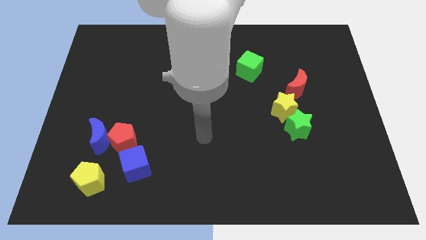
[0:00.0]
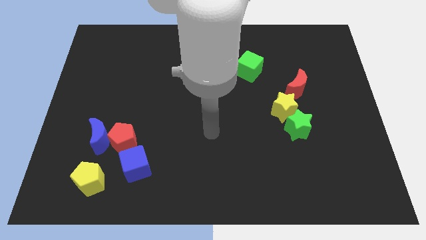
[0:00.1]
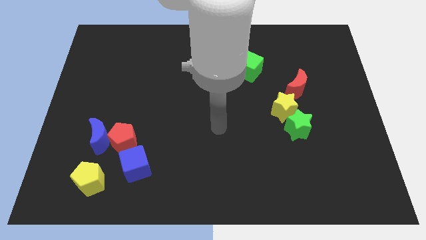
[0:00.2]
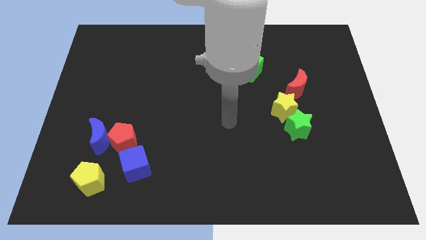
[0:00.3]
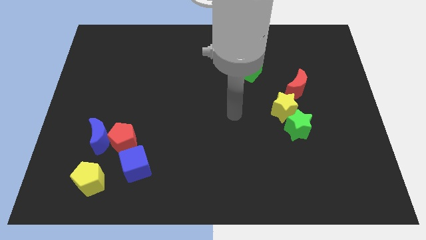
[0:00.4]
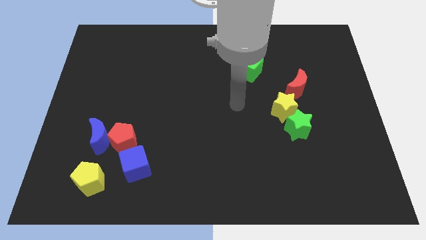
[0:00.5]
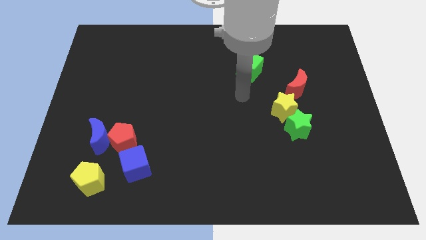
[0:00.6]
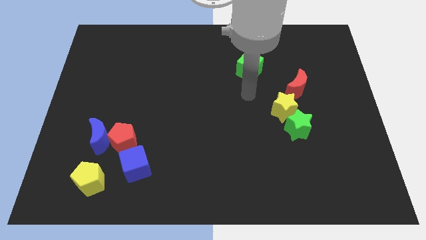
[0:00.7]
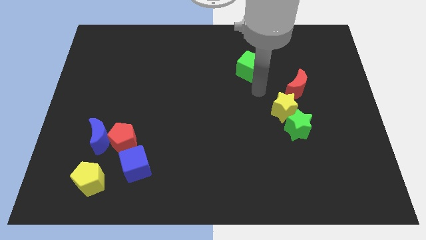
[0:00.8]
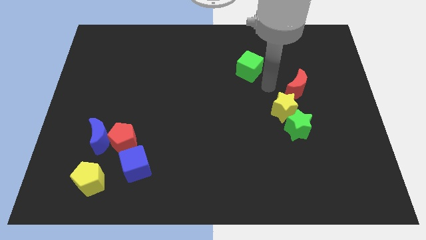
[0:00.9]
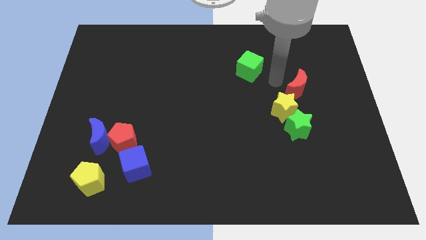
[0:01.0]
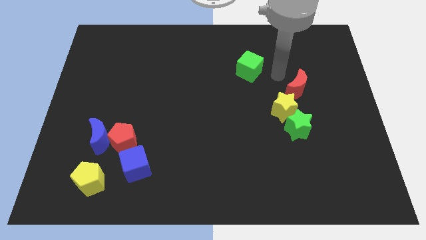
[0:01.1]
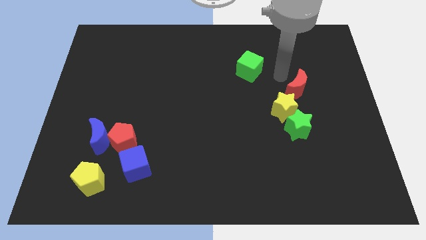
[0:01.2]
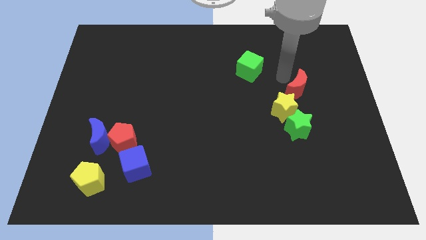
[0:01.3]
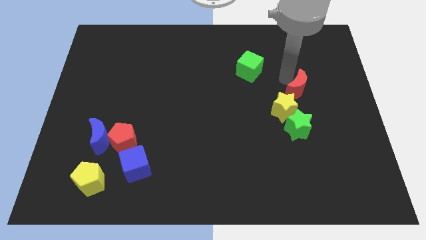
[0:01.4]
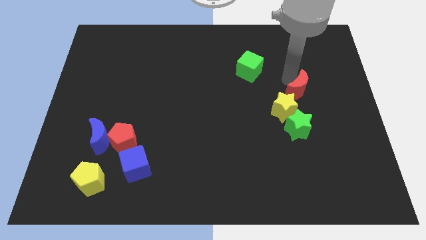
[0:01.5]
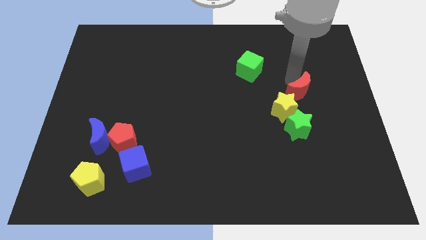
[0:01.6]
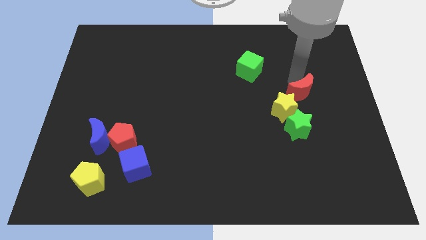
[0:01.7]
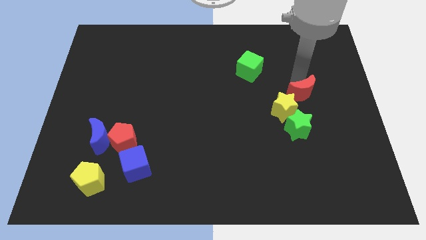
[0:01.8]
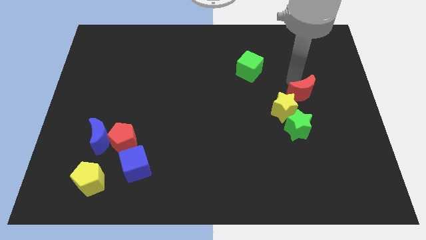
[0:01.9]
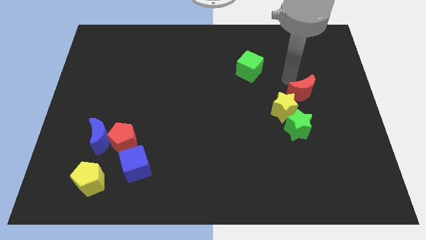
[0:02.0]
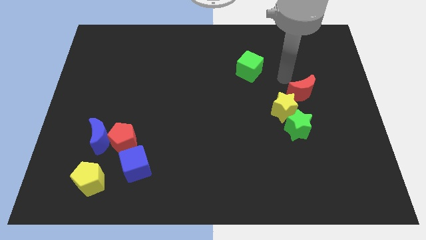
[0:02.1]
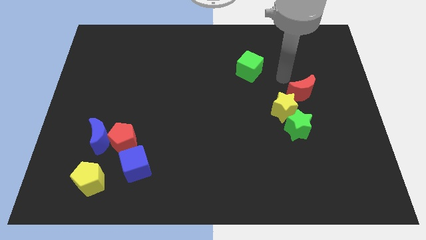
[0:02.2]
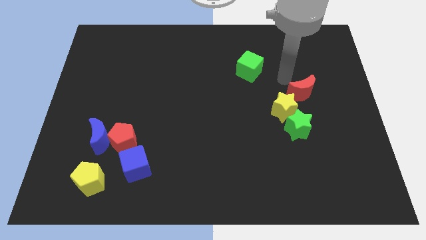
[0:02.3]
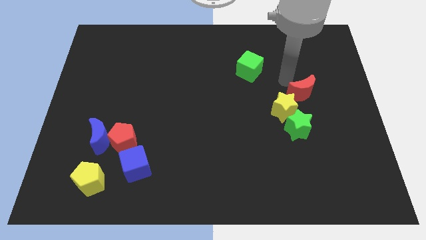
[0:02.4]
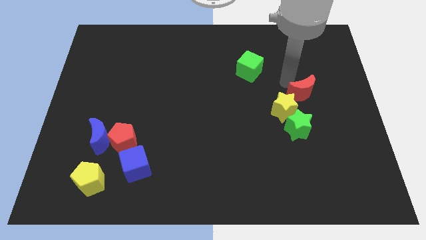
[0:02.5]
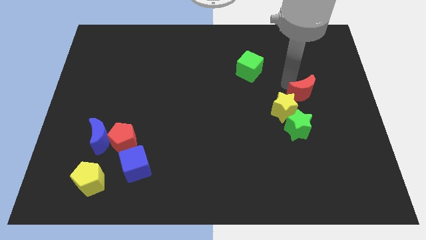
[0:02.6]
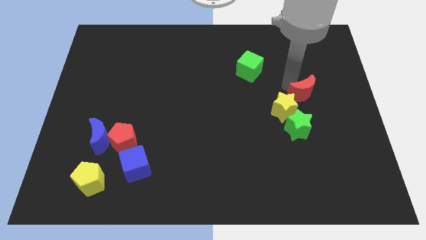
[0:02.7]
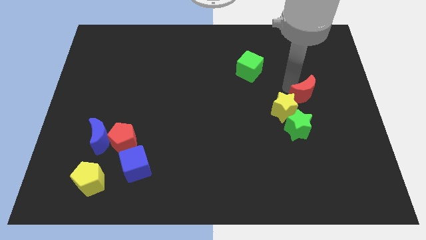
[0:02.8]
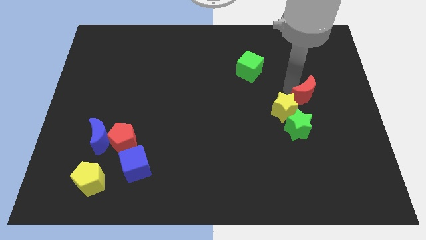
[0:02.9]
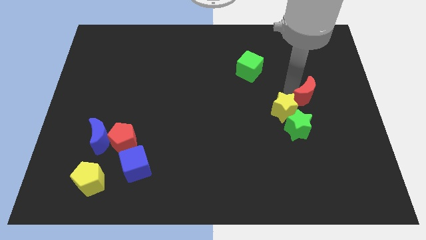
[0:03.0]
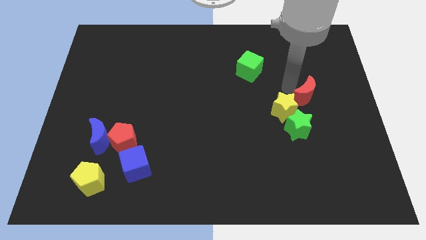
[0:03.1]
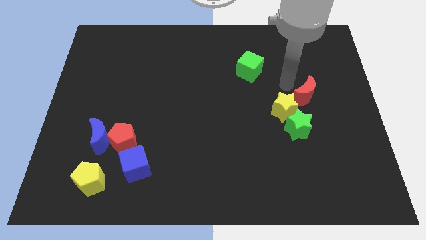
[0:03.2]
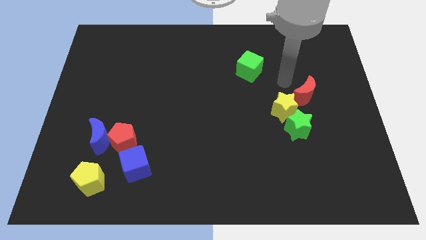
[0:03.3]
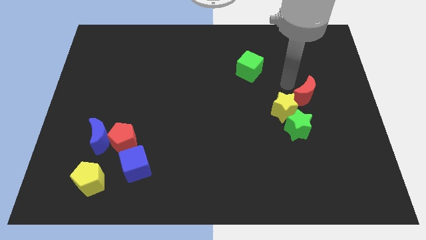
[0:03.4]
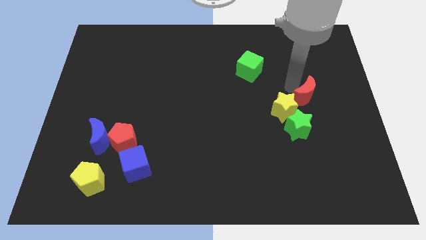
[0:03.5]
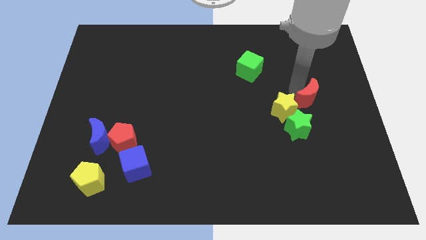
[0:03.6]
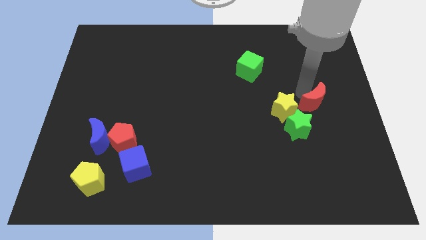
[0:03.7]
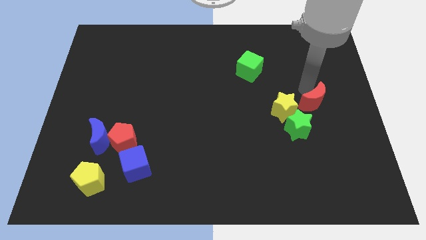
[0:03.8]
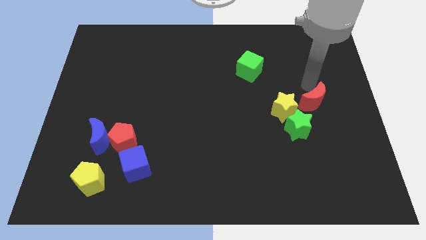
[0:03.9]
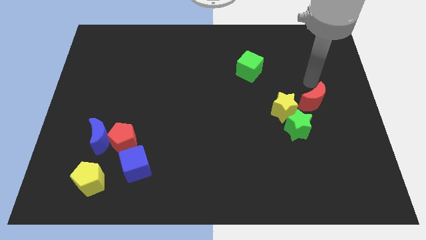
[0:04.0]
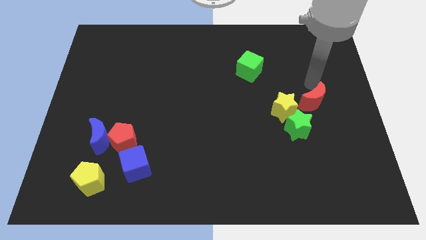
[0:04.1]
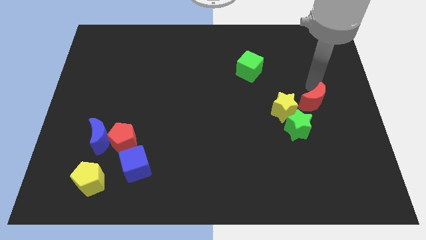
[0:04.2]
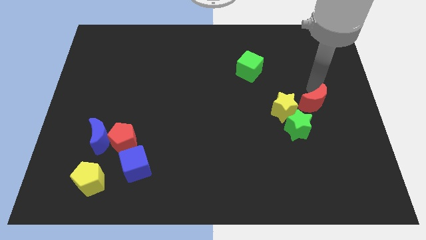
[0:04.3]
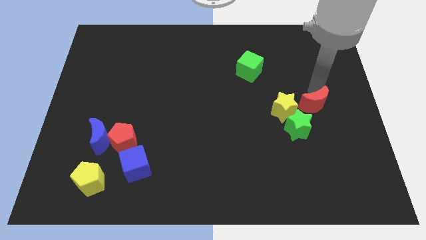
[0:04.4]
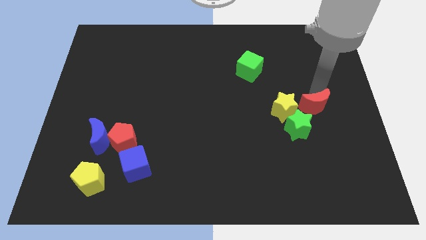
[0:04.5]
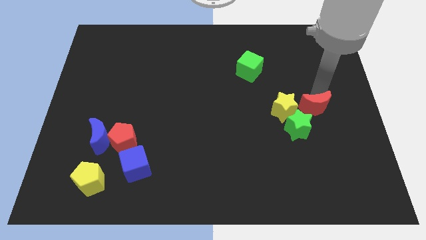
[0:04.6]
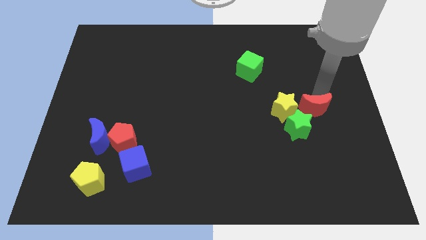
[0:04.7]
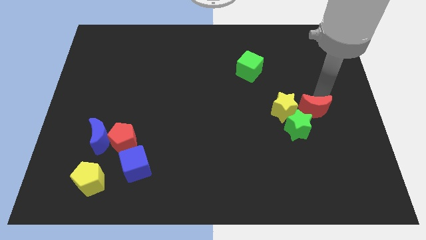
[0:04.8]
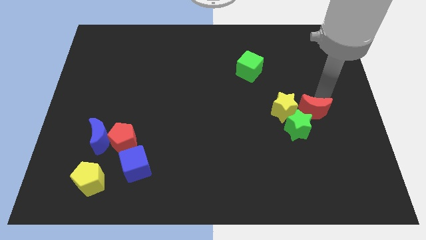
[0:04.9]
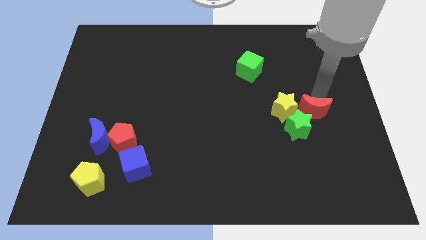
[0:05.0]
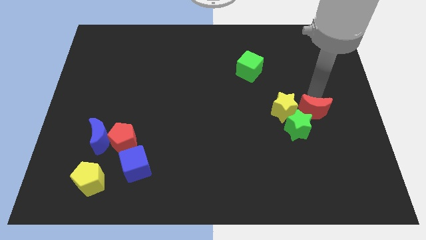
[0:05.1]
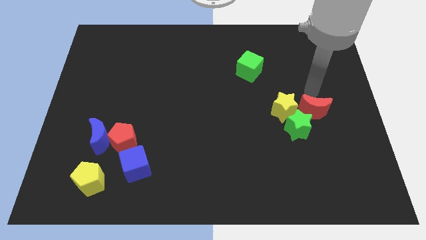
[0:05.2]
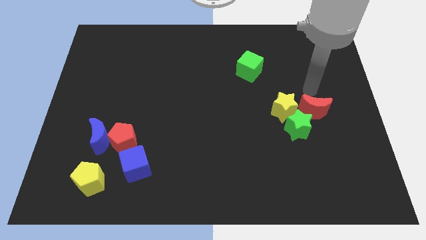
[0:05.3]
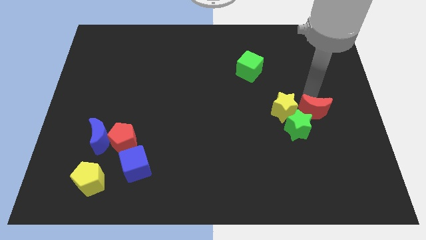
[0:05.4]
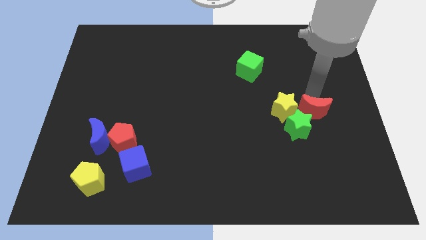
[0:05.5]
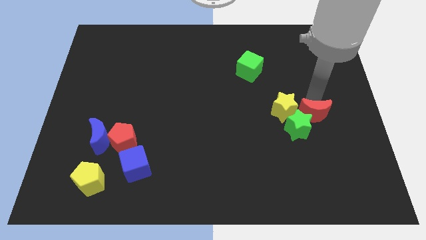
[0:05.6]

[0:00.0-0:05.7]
slightly slide the red moon downwards

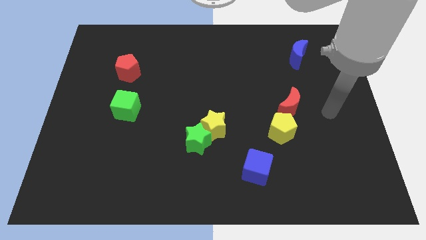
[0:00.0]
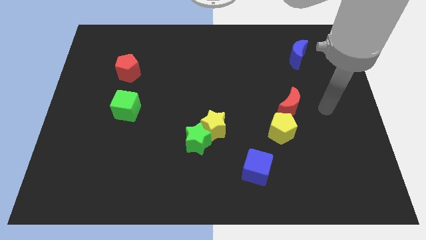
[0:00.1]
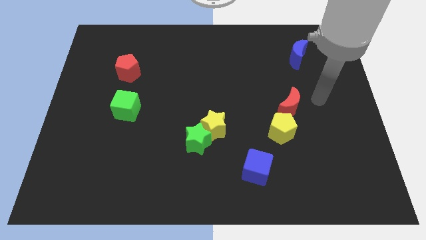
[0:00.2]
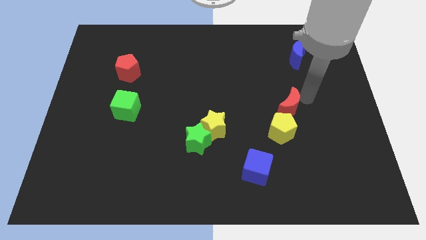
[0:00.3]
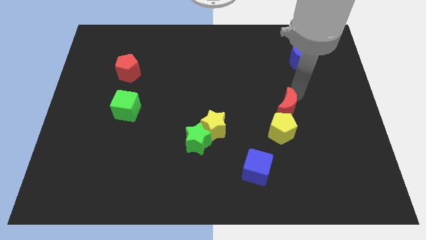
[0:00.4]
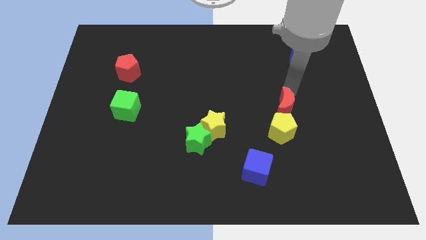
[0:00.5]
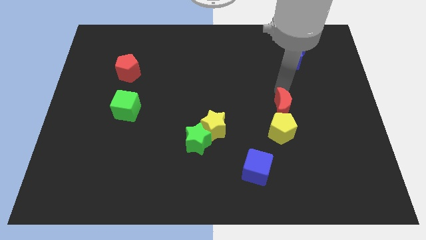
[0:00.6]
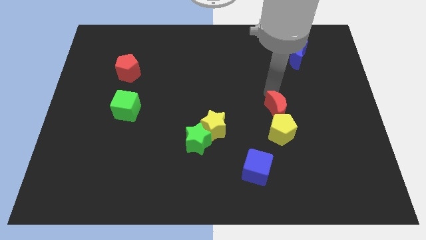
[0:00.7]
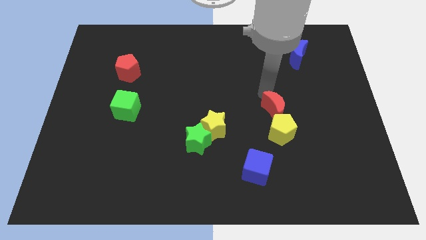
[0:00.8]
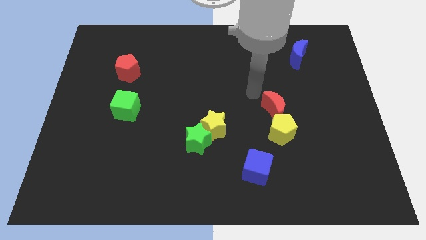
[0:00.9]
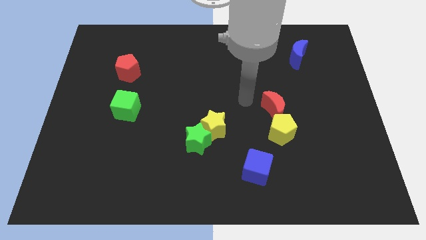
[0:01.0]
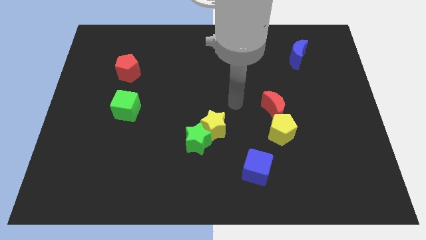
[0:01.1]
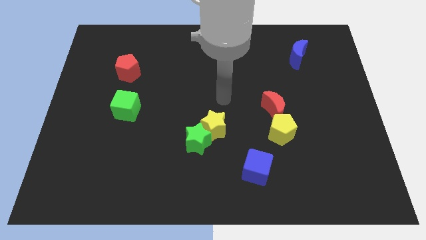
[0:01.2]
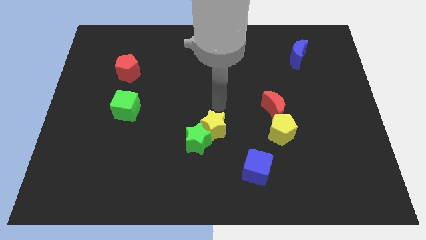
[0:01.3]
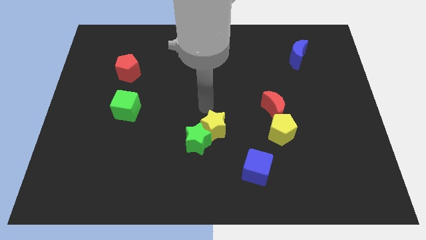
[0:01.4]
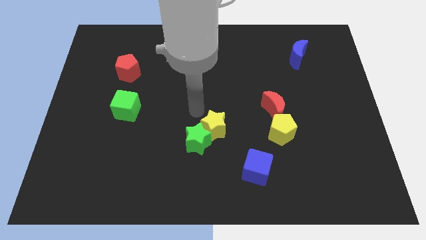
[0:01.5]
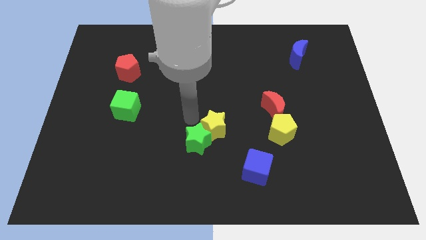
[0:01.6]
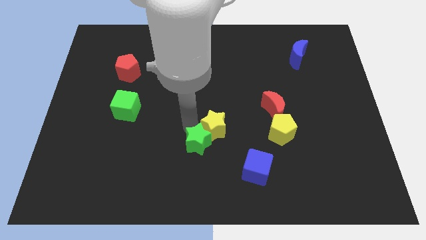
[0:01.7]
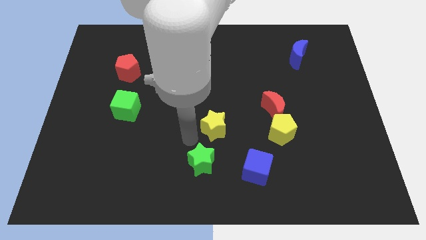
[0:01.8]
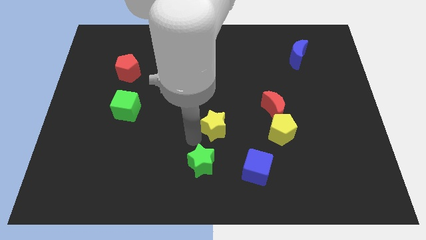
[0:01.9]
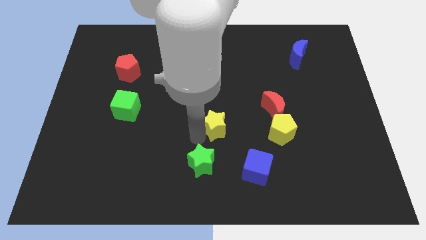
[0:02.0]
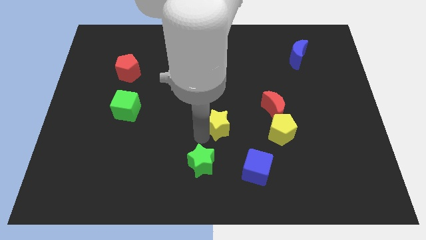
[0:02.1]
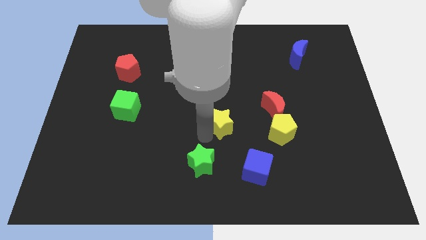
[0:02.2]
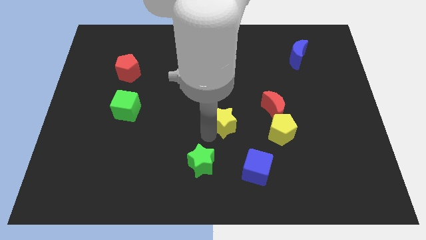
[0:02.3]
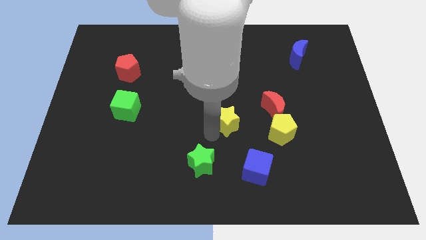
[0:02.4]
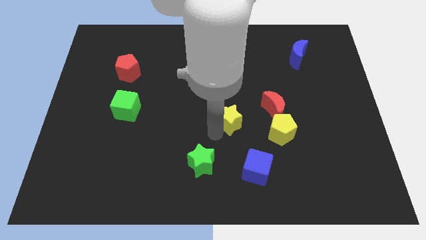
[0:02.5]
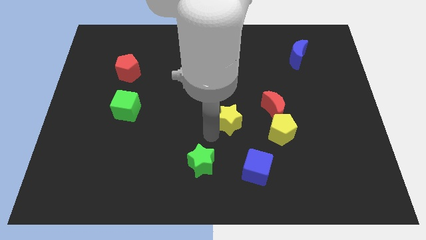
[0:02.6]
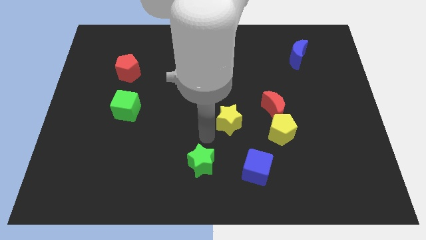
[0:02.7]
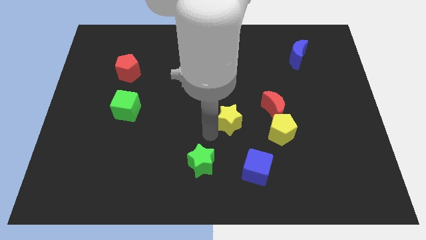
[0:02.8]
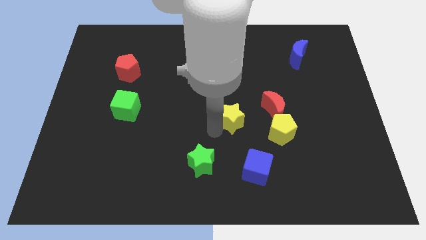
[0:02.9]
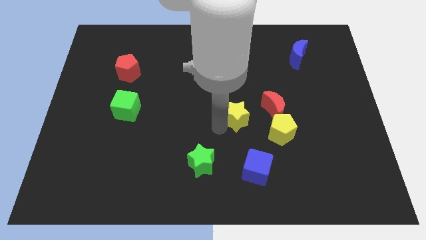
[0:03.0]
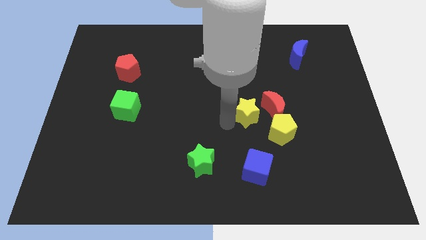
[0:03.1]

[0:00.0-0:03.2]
slightly push the yellow star up and to the right
